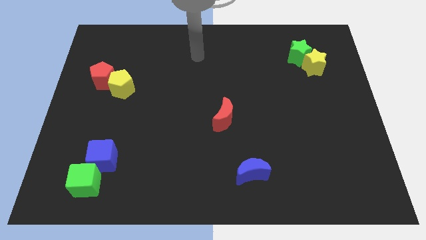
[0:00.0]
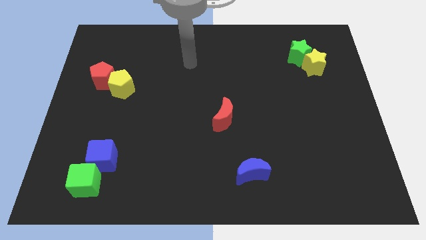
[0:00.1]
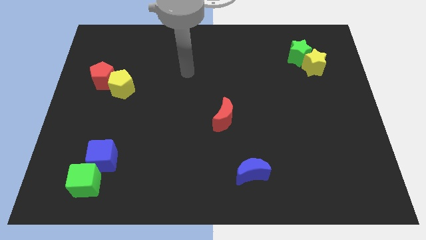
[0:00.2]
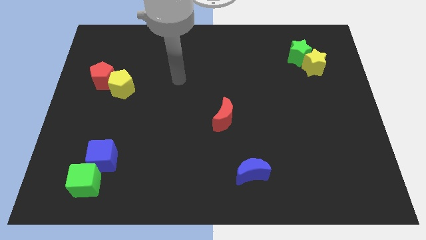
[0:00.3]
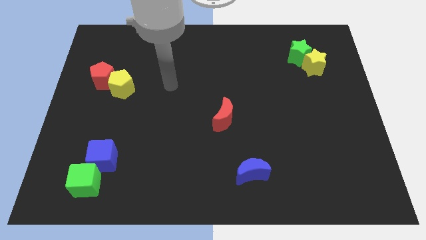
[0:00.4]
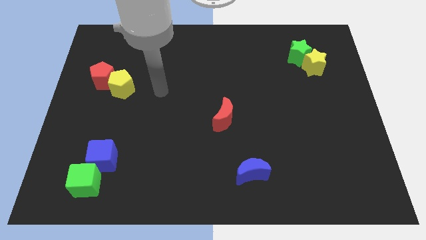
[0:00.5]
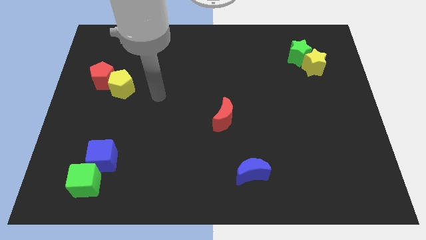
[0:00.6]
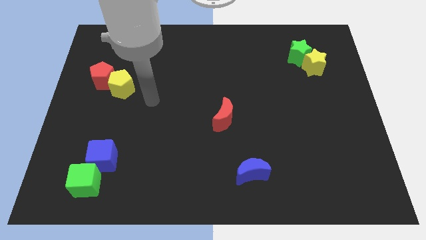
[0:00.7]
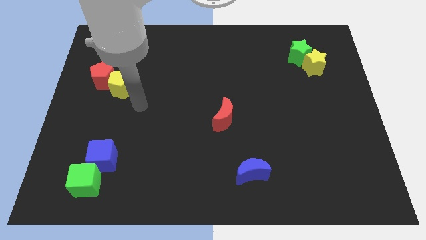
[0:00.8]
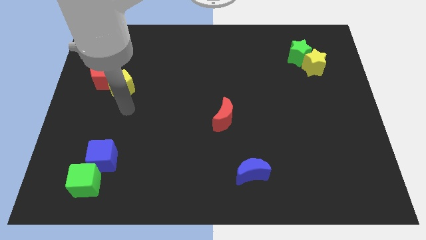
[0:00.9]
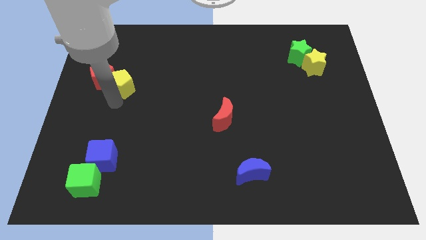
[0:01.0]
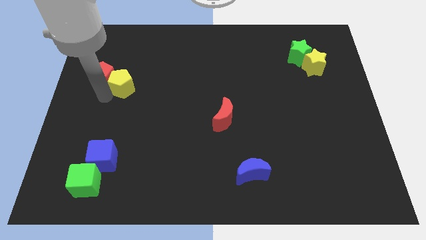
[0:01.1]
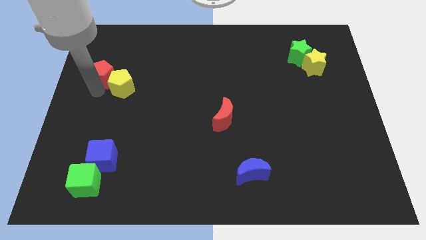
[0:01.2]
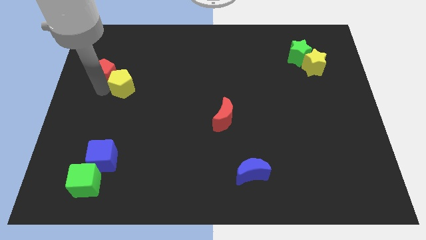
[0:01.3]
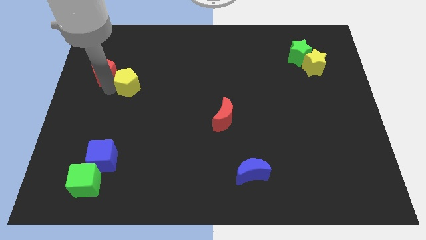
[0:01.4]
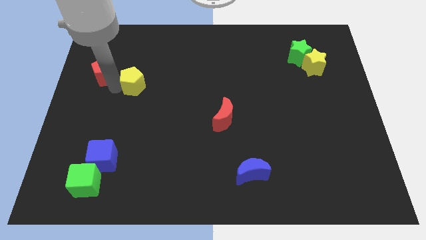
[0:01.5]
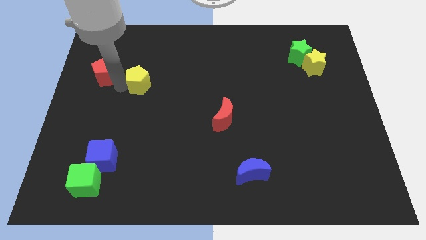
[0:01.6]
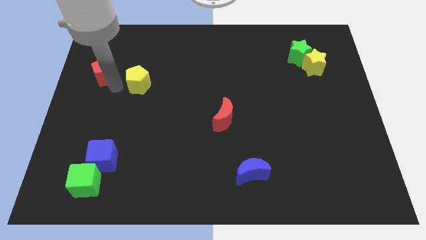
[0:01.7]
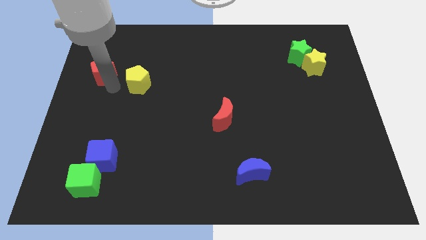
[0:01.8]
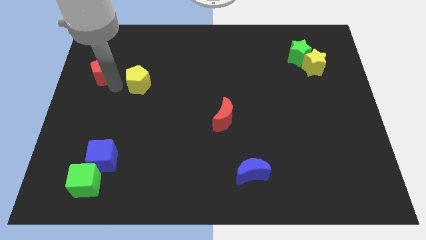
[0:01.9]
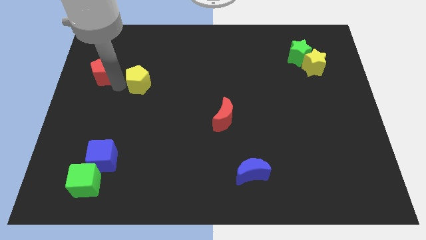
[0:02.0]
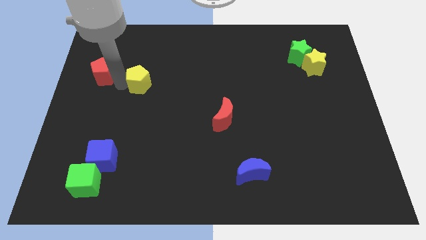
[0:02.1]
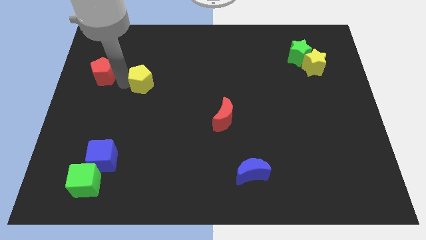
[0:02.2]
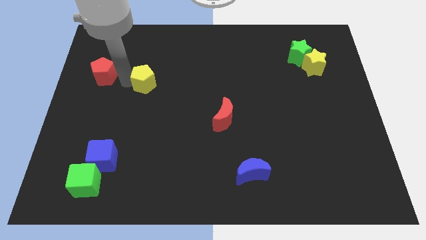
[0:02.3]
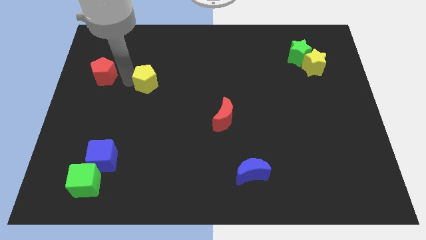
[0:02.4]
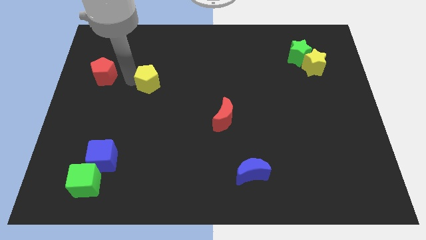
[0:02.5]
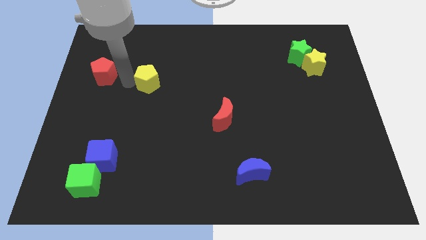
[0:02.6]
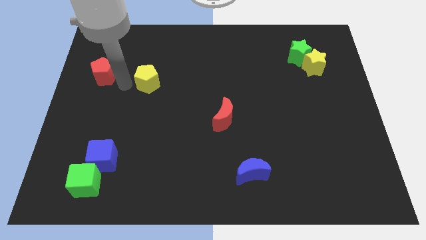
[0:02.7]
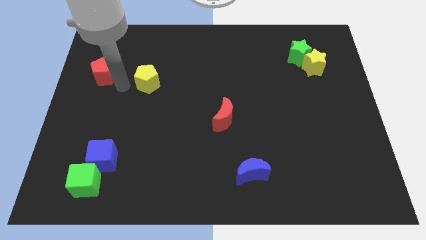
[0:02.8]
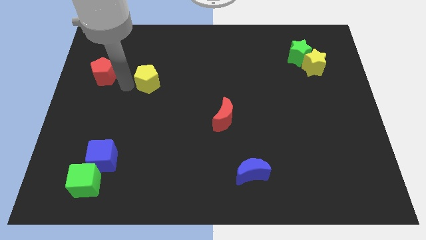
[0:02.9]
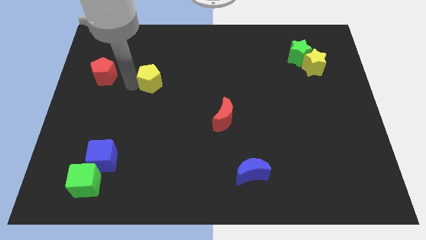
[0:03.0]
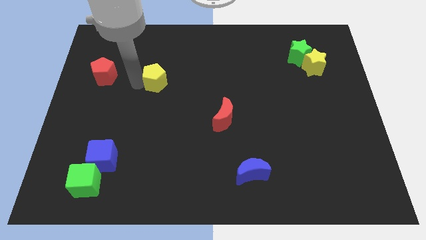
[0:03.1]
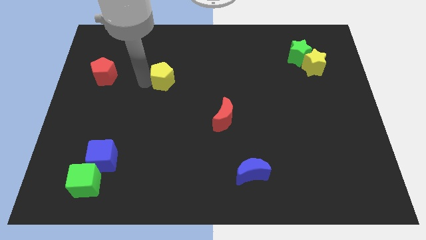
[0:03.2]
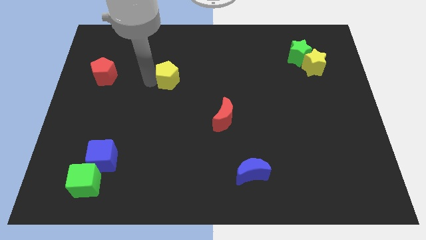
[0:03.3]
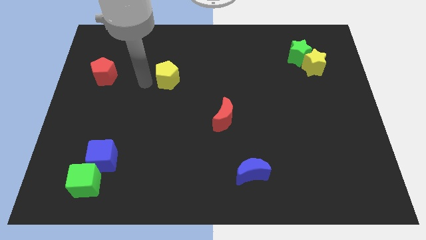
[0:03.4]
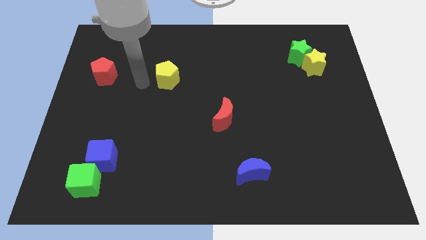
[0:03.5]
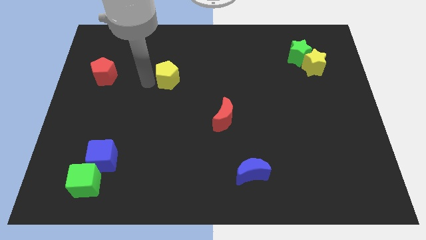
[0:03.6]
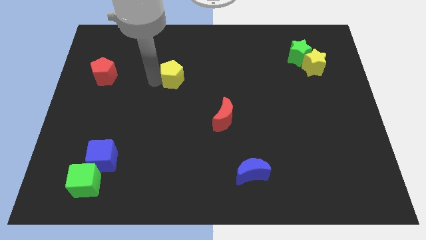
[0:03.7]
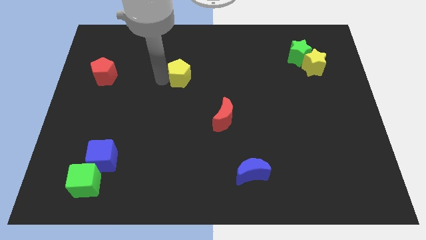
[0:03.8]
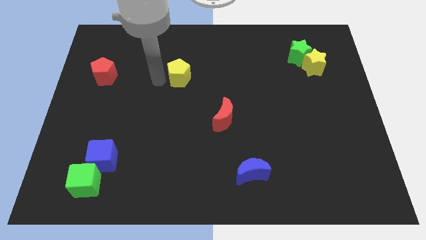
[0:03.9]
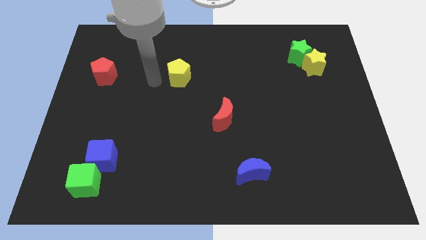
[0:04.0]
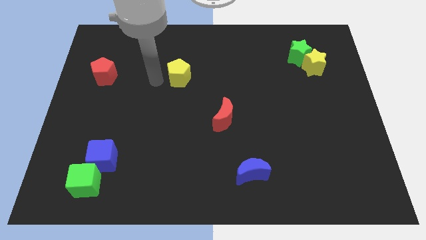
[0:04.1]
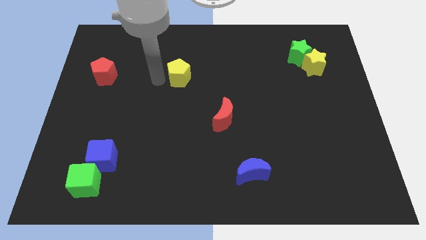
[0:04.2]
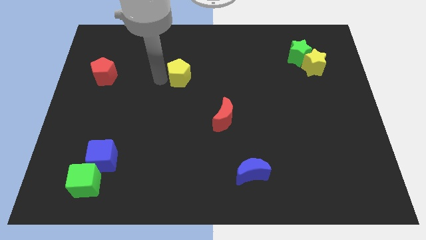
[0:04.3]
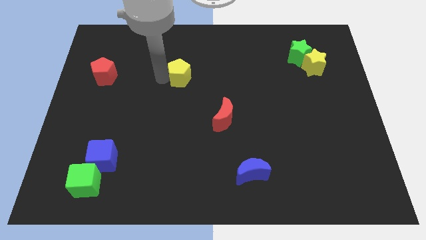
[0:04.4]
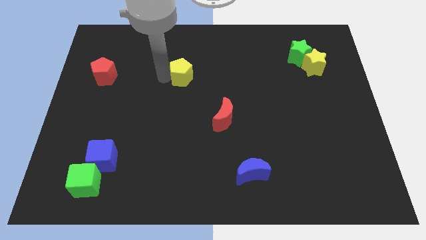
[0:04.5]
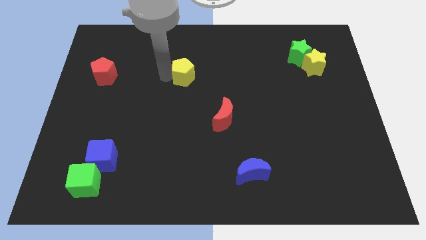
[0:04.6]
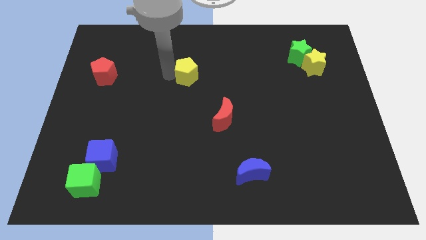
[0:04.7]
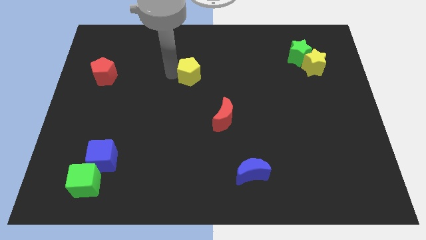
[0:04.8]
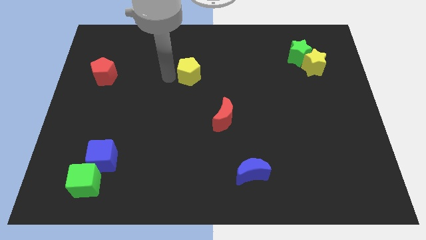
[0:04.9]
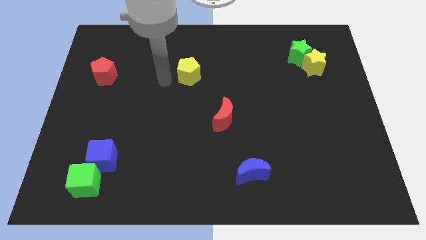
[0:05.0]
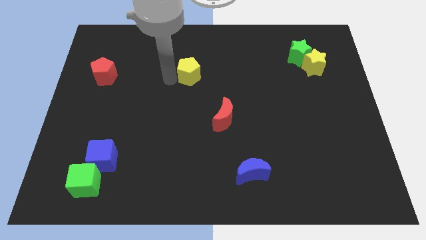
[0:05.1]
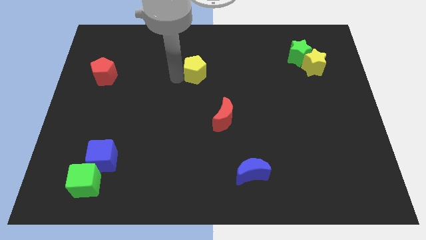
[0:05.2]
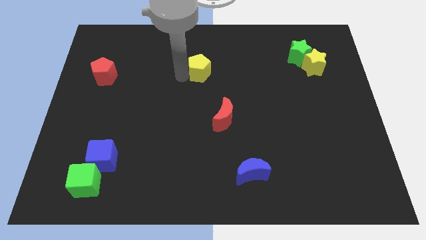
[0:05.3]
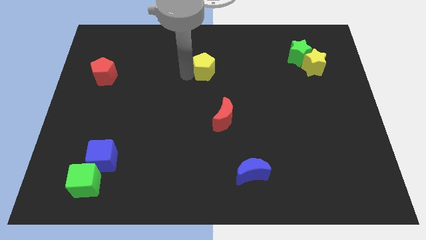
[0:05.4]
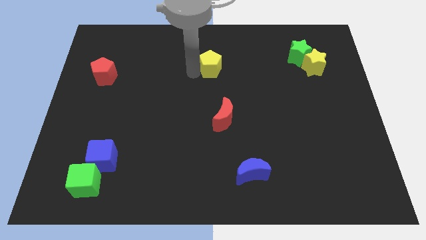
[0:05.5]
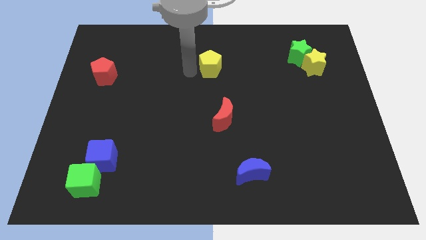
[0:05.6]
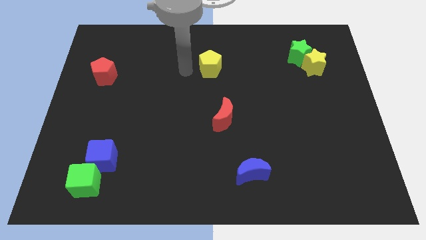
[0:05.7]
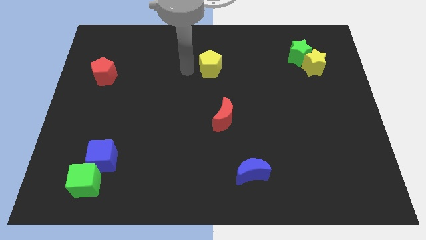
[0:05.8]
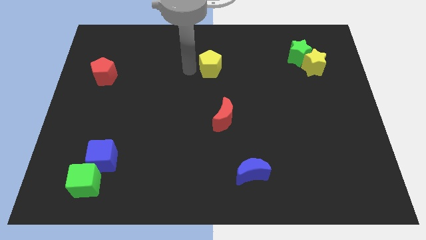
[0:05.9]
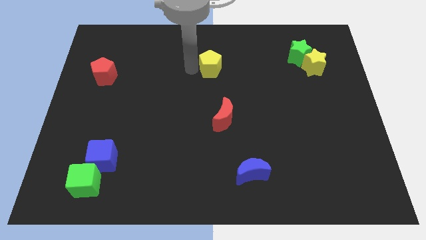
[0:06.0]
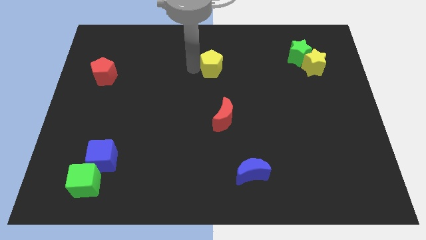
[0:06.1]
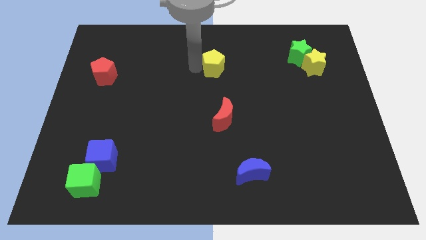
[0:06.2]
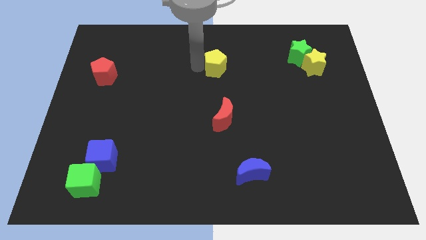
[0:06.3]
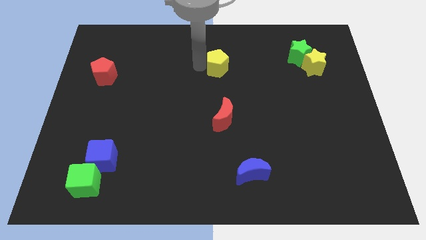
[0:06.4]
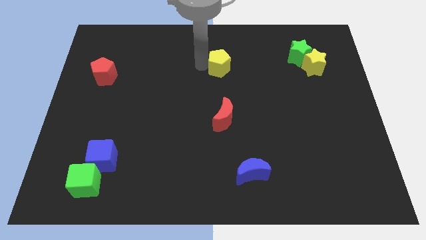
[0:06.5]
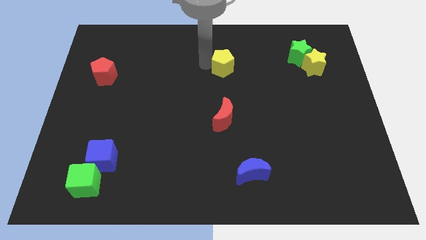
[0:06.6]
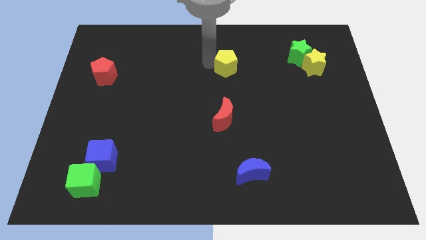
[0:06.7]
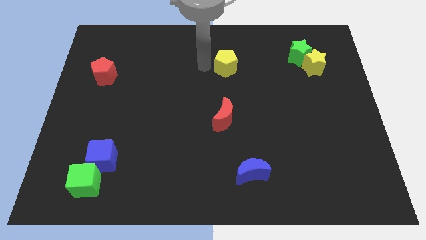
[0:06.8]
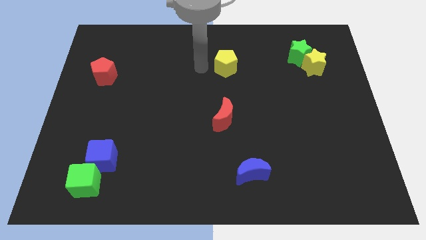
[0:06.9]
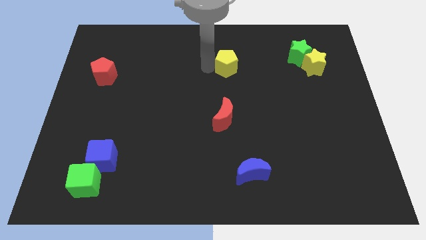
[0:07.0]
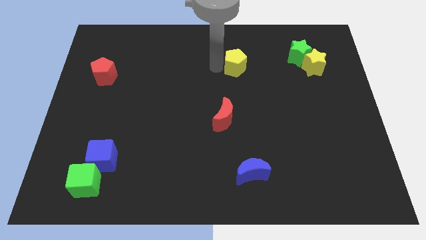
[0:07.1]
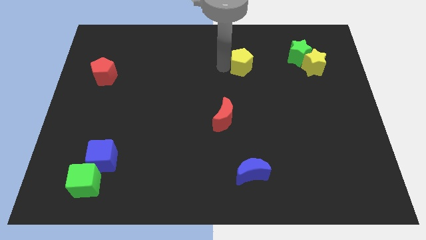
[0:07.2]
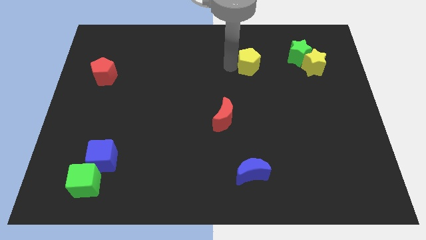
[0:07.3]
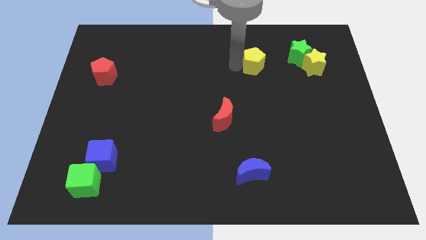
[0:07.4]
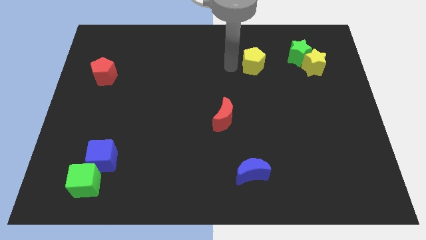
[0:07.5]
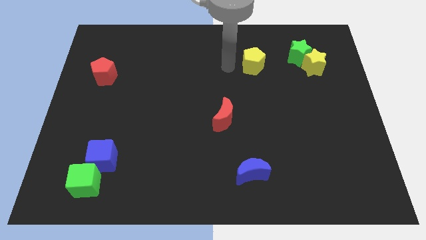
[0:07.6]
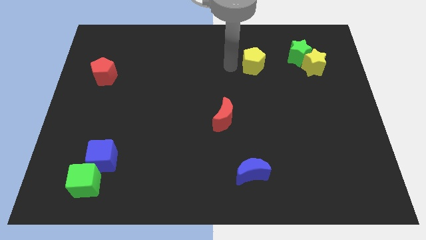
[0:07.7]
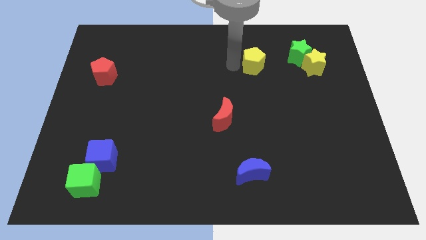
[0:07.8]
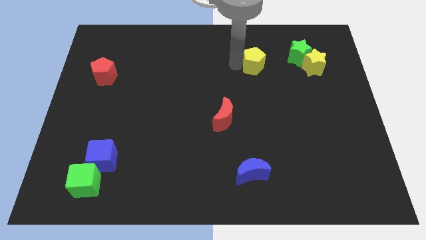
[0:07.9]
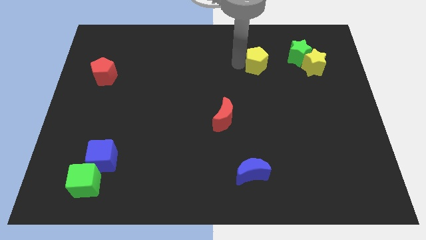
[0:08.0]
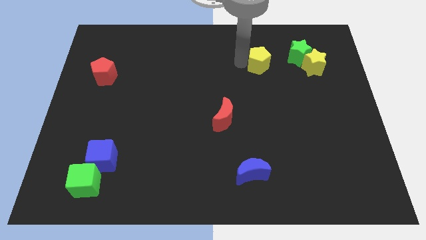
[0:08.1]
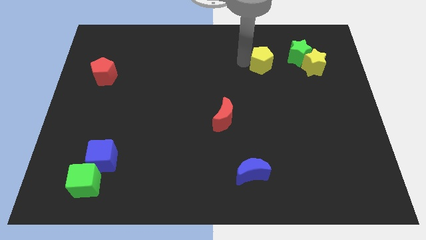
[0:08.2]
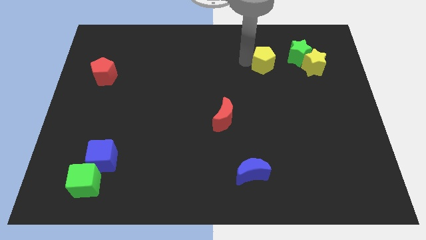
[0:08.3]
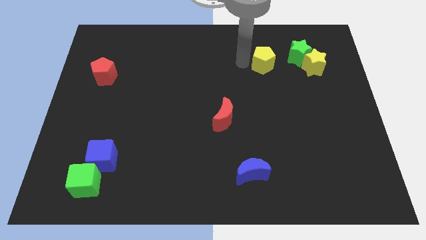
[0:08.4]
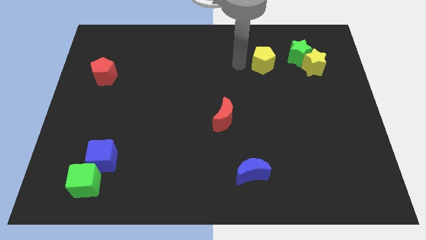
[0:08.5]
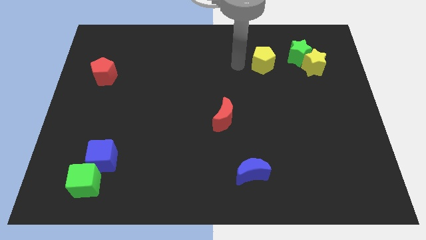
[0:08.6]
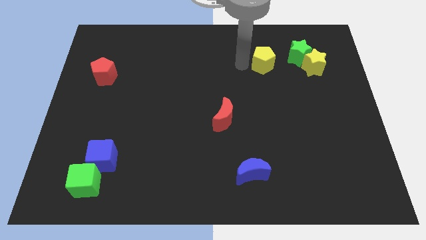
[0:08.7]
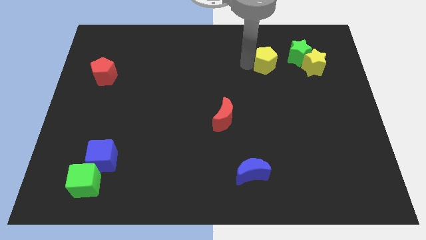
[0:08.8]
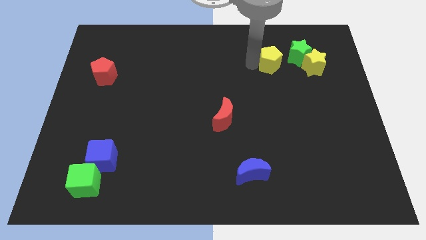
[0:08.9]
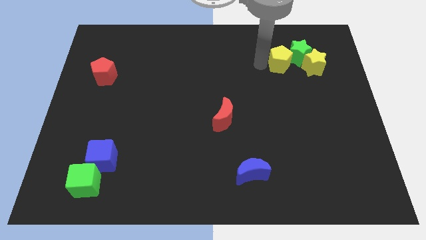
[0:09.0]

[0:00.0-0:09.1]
move the yellow pentagon towards the green star
